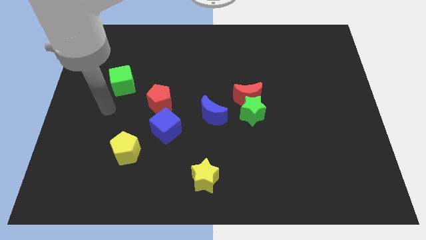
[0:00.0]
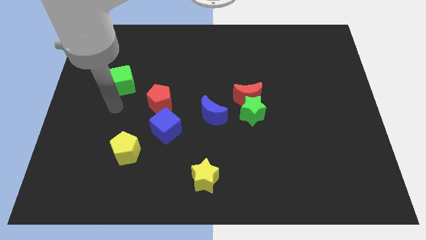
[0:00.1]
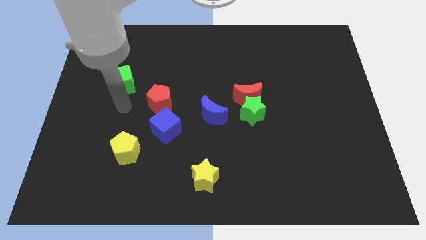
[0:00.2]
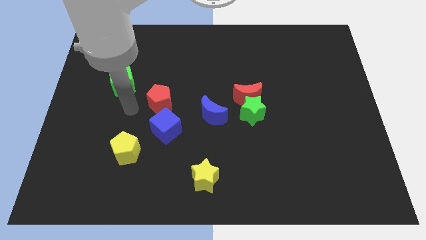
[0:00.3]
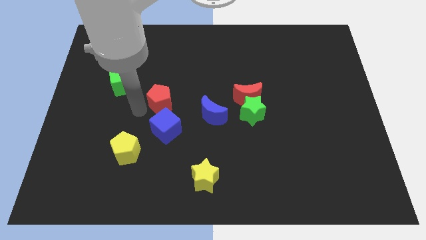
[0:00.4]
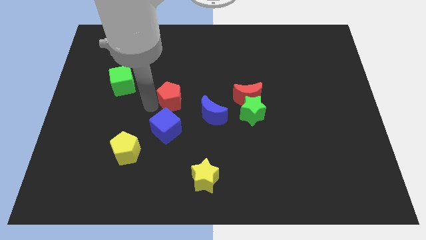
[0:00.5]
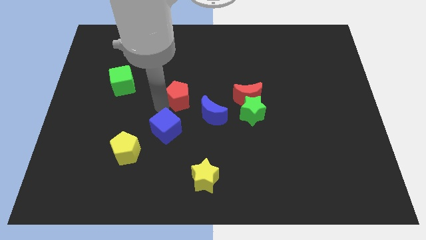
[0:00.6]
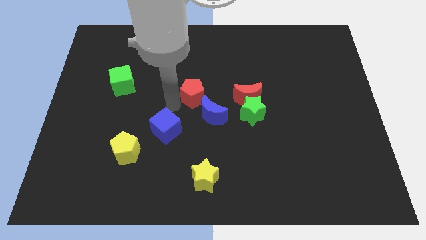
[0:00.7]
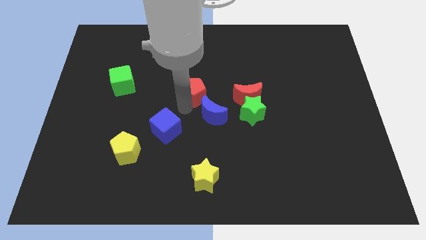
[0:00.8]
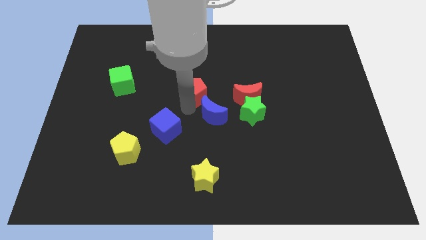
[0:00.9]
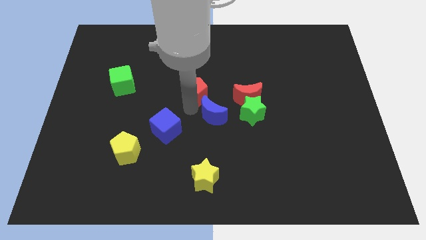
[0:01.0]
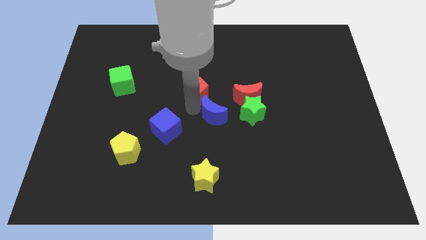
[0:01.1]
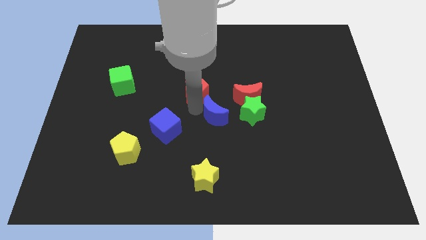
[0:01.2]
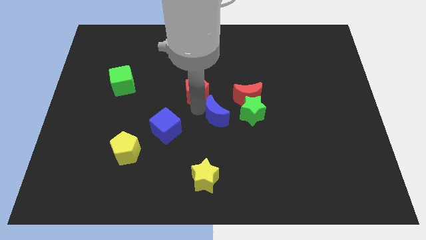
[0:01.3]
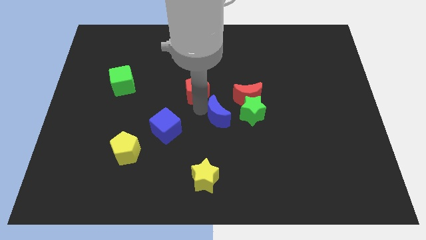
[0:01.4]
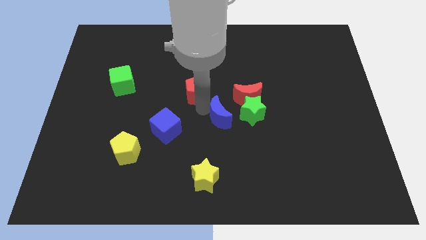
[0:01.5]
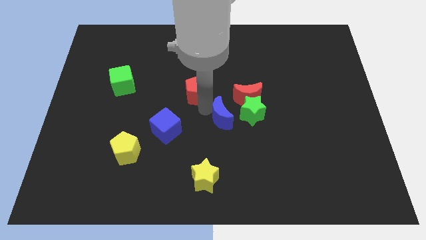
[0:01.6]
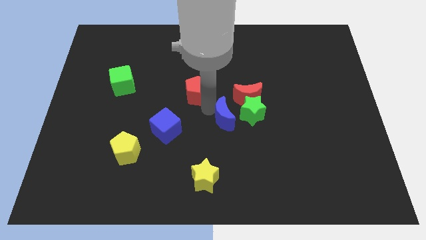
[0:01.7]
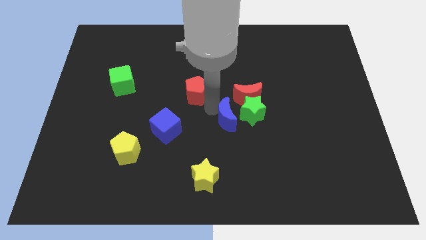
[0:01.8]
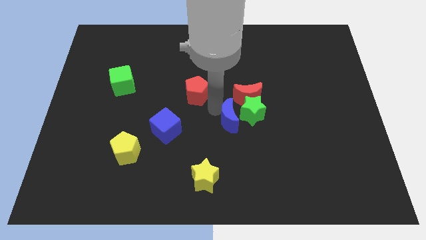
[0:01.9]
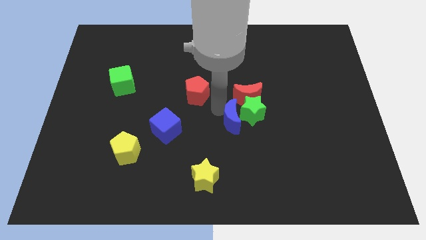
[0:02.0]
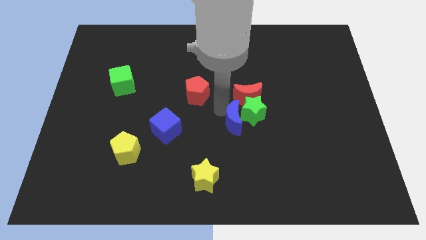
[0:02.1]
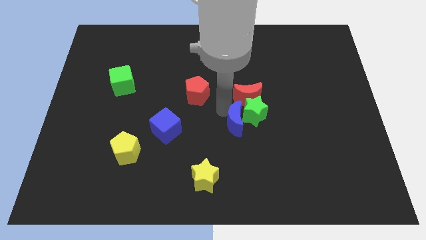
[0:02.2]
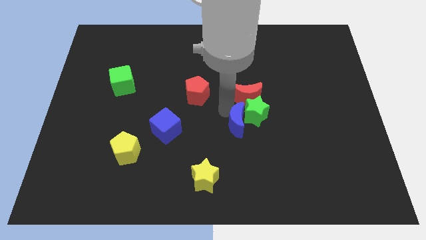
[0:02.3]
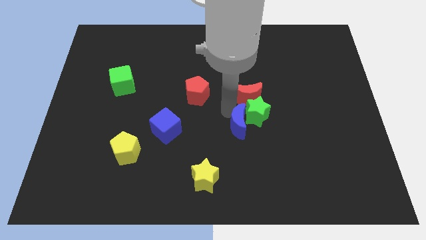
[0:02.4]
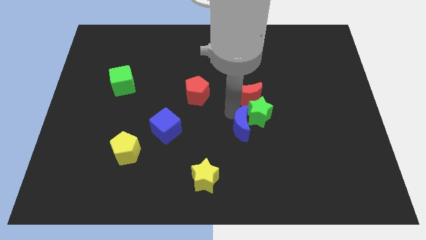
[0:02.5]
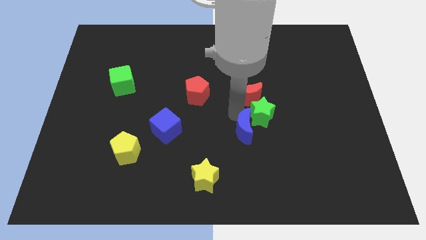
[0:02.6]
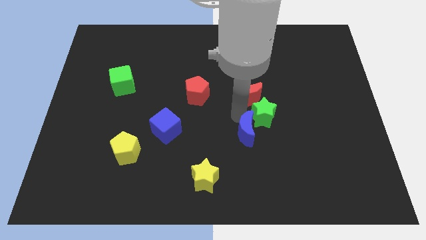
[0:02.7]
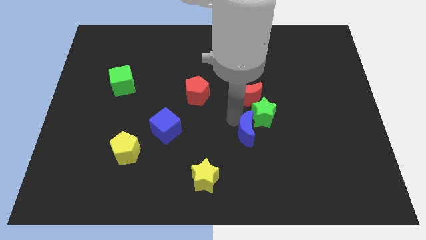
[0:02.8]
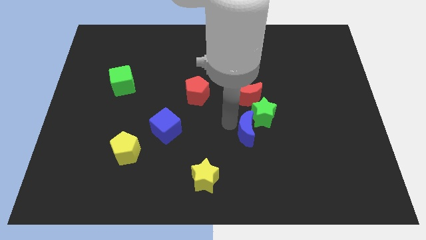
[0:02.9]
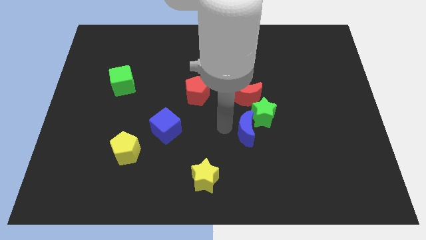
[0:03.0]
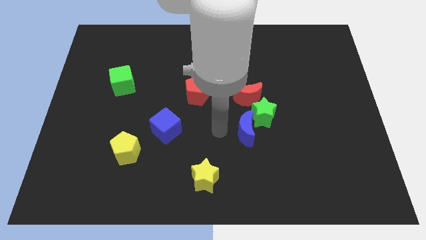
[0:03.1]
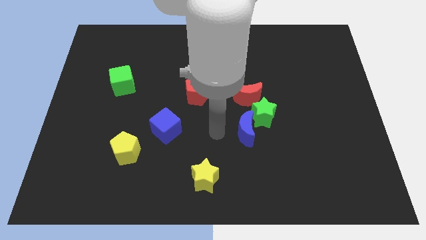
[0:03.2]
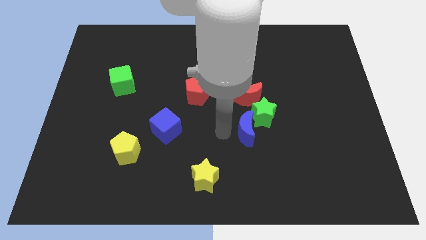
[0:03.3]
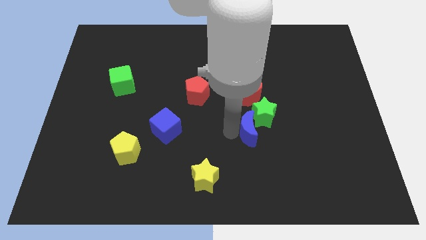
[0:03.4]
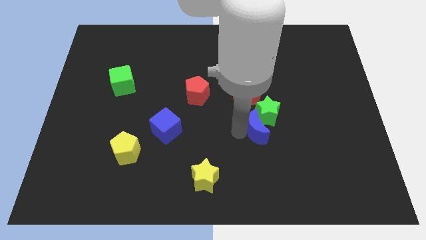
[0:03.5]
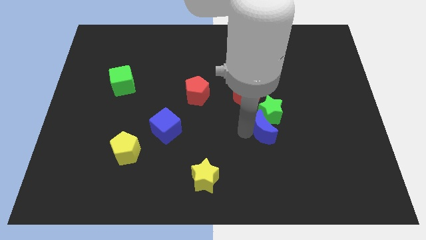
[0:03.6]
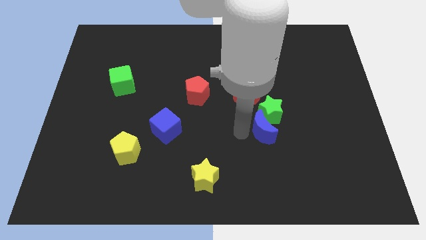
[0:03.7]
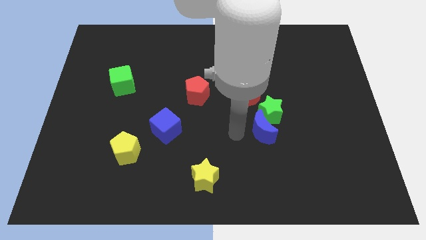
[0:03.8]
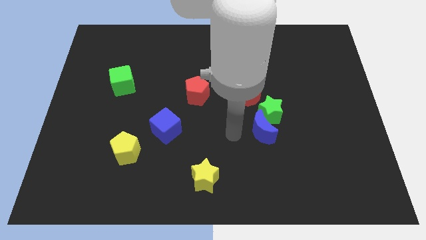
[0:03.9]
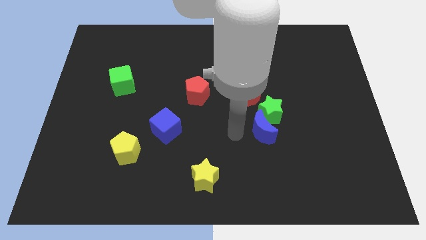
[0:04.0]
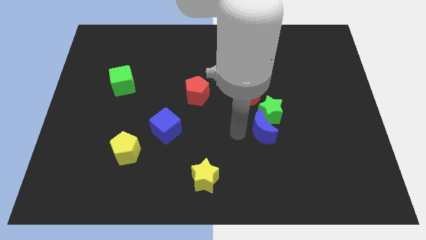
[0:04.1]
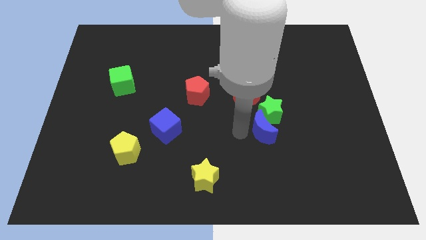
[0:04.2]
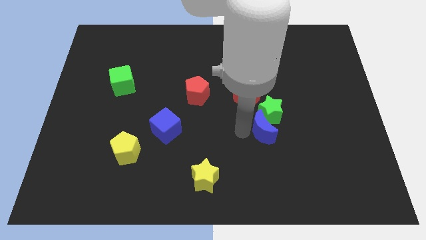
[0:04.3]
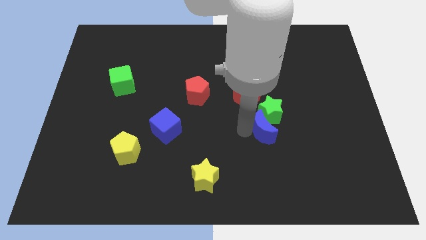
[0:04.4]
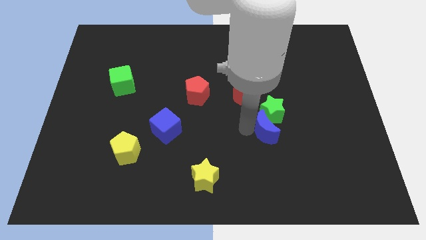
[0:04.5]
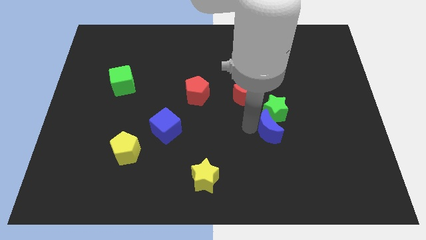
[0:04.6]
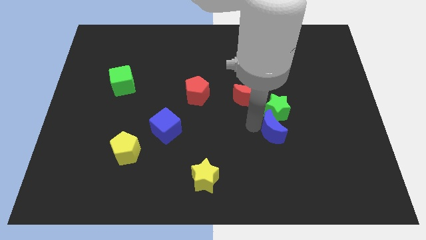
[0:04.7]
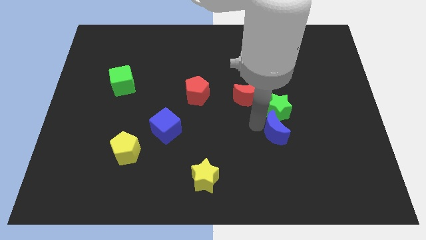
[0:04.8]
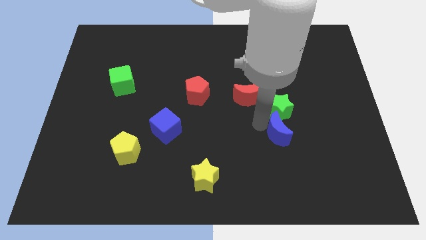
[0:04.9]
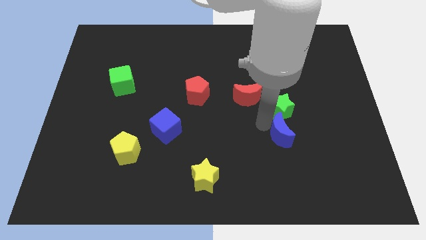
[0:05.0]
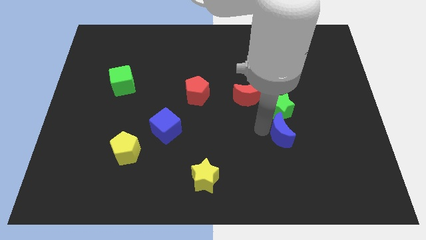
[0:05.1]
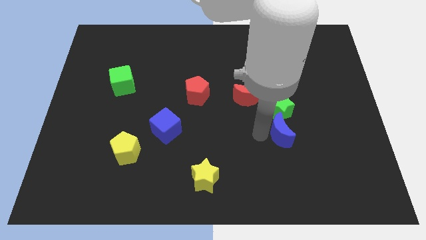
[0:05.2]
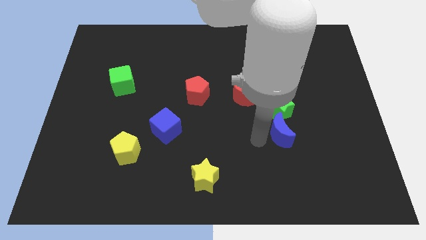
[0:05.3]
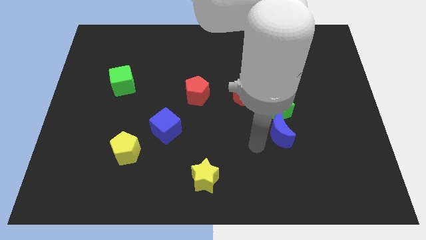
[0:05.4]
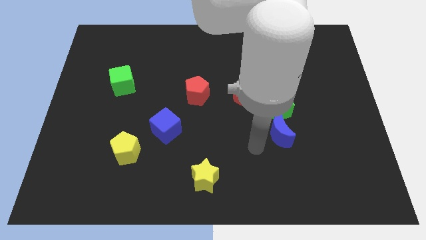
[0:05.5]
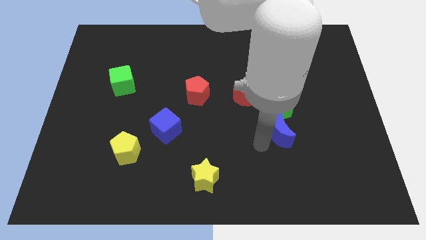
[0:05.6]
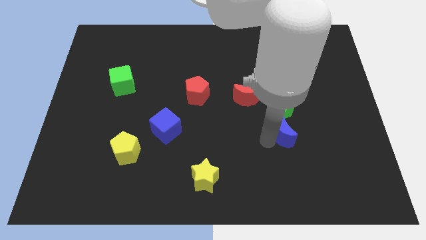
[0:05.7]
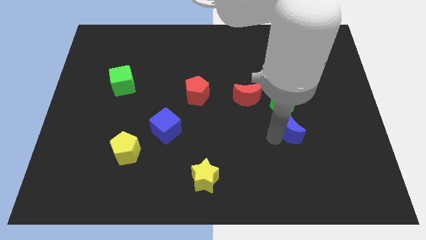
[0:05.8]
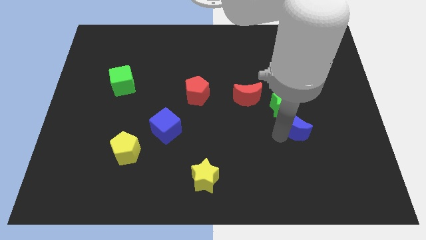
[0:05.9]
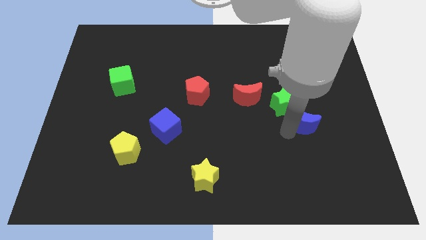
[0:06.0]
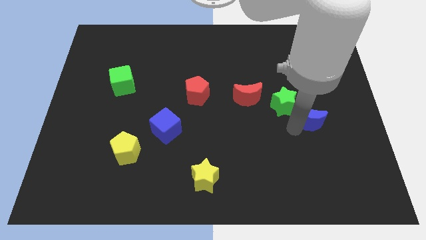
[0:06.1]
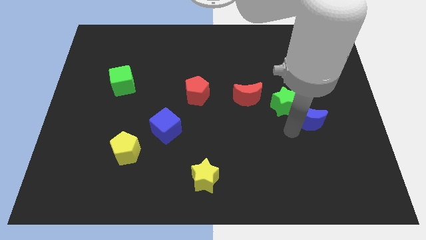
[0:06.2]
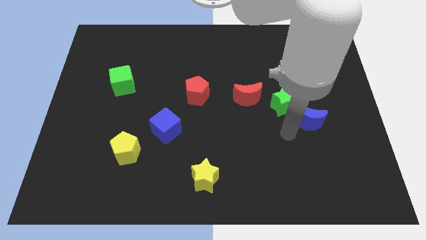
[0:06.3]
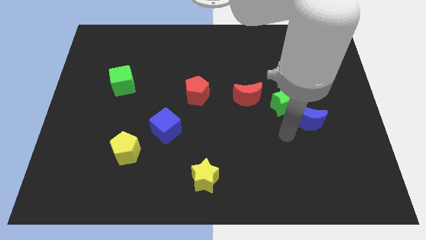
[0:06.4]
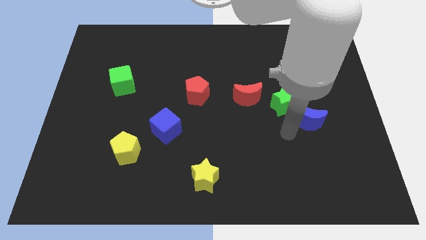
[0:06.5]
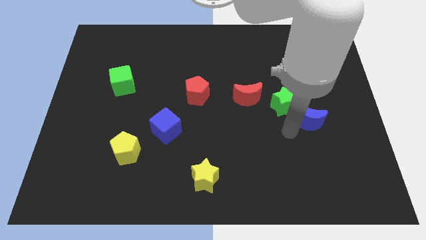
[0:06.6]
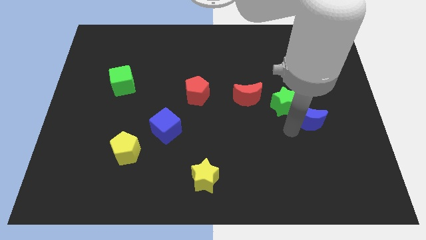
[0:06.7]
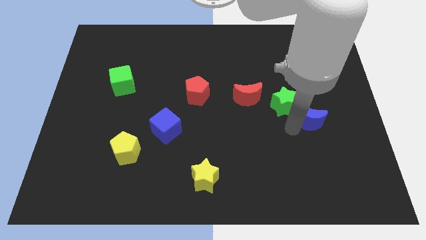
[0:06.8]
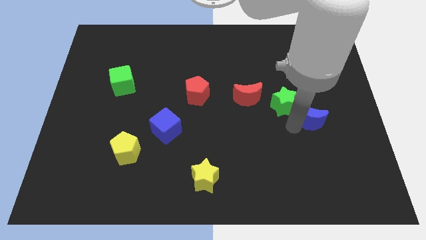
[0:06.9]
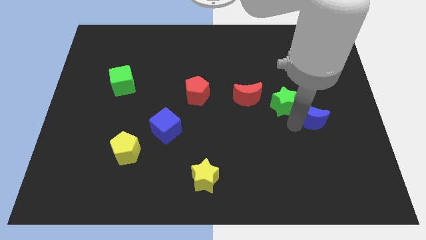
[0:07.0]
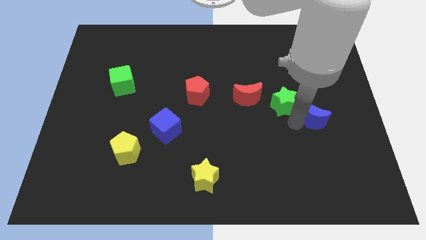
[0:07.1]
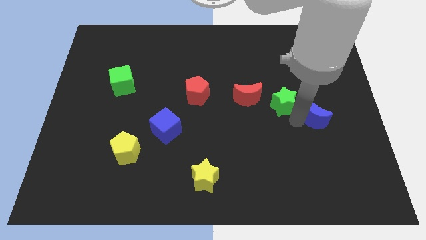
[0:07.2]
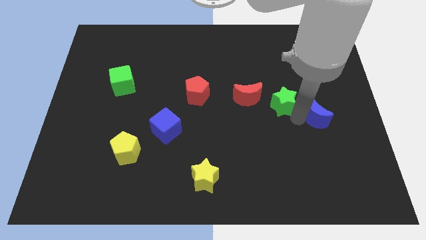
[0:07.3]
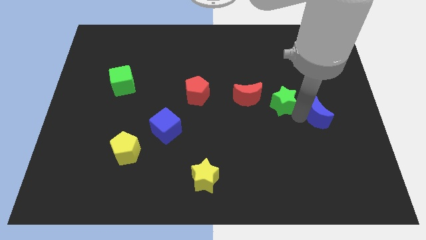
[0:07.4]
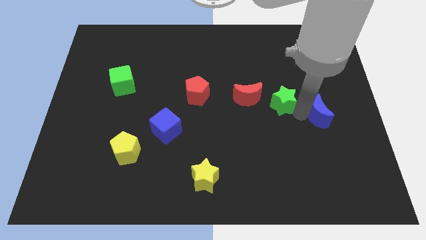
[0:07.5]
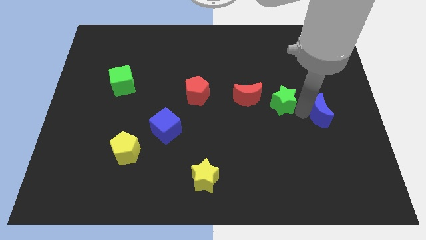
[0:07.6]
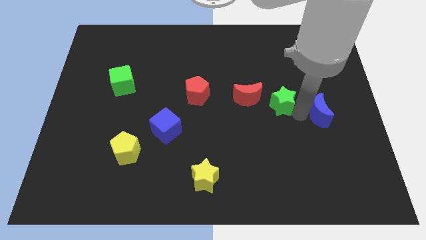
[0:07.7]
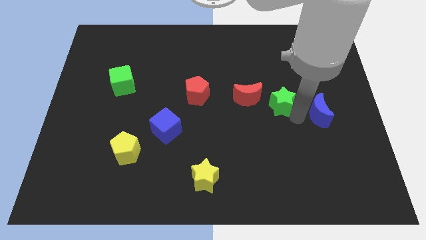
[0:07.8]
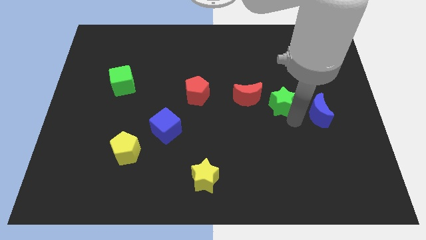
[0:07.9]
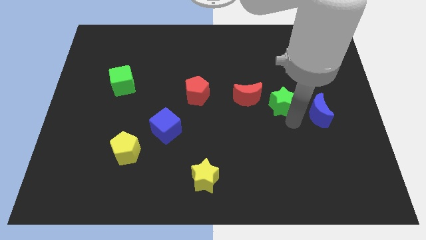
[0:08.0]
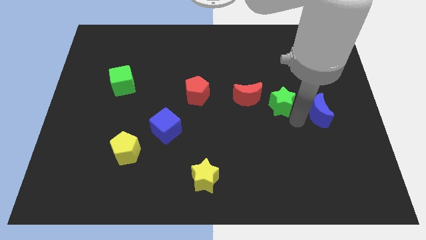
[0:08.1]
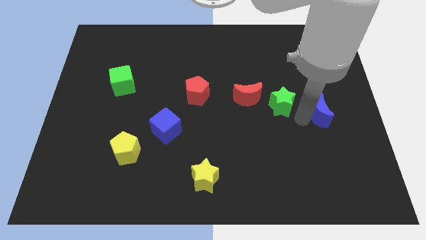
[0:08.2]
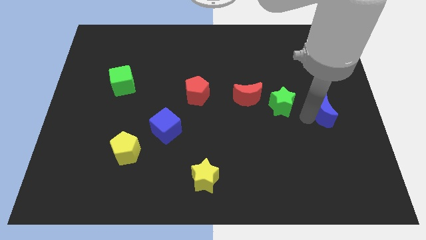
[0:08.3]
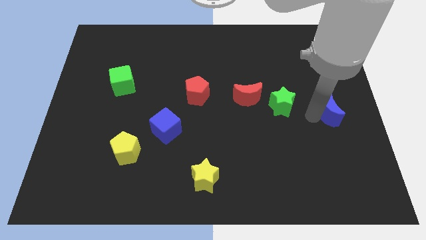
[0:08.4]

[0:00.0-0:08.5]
slide the blue moon to the right side of the board
